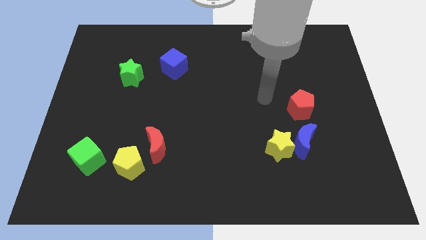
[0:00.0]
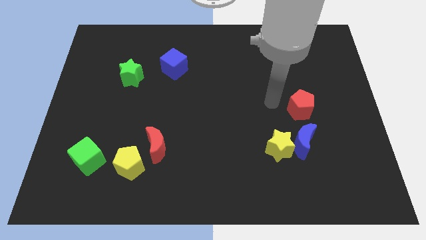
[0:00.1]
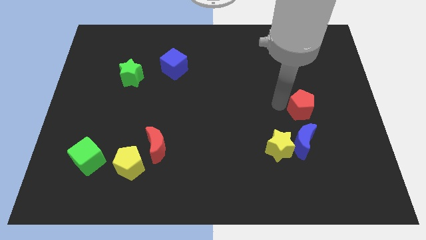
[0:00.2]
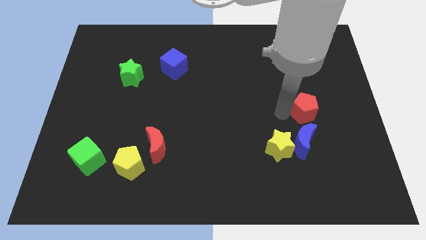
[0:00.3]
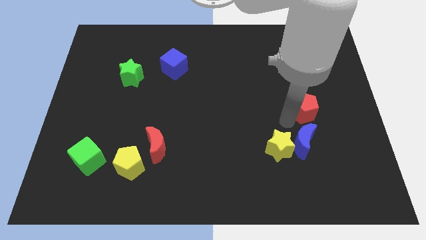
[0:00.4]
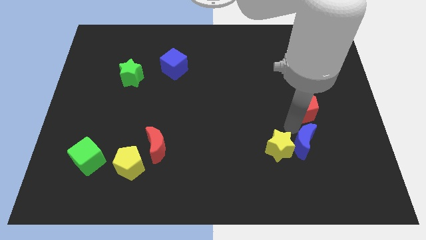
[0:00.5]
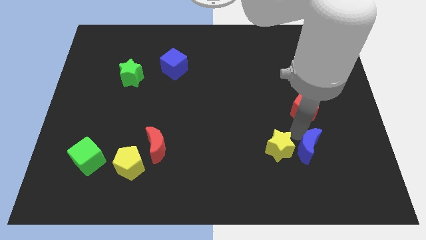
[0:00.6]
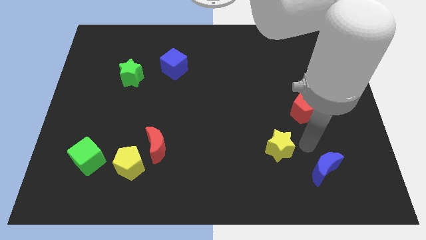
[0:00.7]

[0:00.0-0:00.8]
pull the yellow star apart from the blue moon

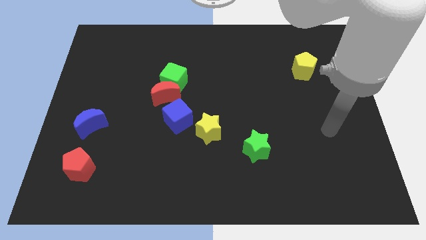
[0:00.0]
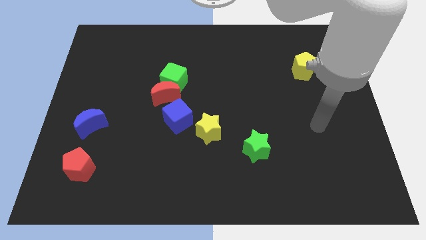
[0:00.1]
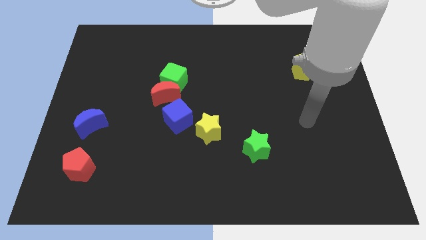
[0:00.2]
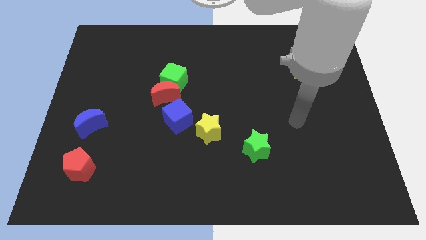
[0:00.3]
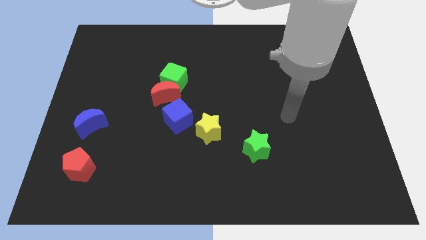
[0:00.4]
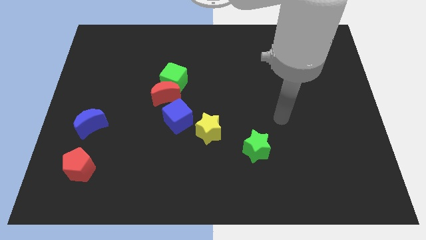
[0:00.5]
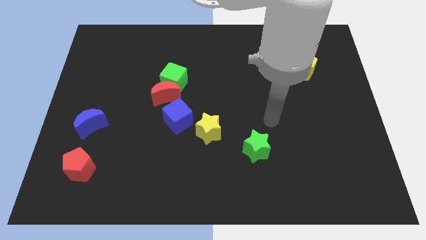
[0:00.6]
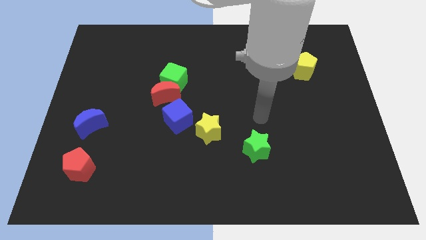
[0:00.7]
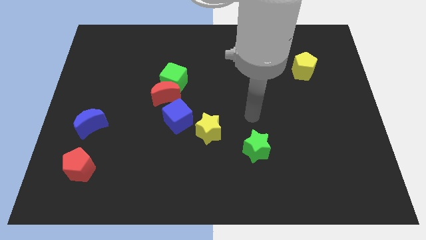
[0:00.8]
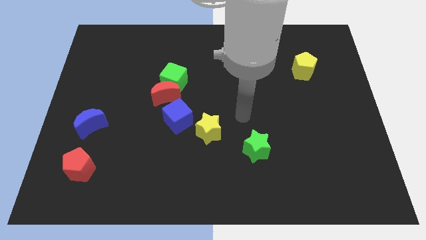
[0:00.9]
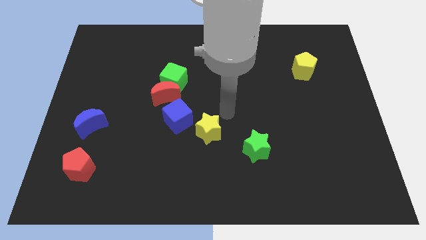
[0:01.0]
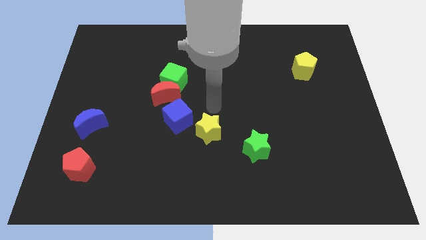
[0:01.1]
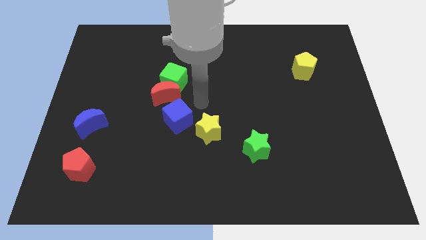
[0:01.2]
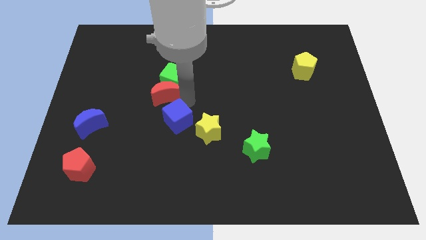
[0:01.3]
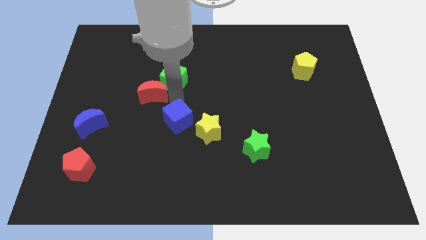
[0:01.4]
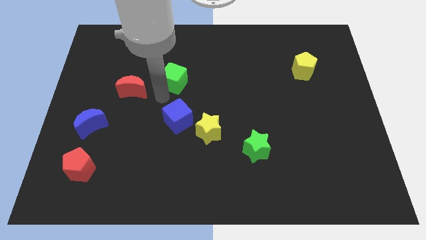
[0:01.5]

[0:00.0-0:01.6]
move the green cube away from the red moon

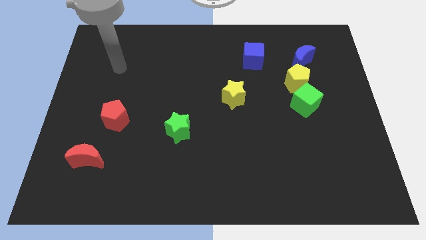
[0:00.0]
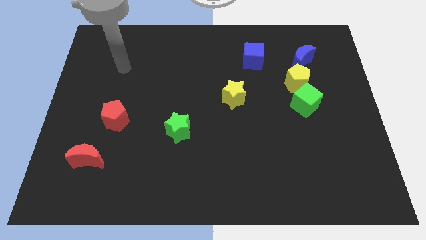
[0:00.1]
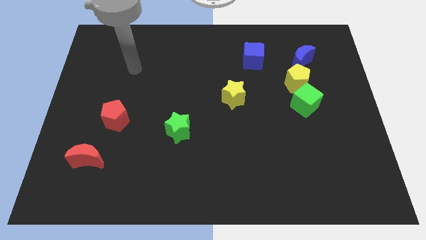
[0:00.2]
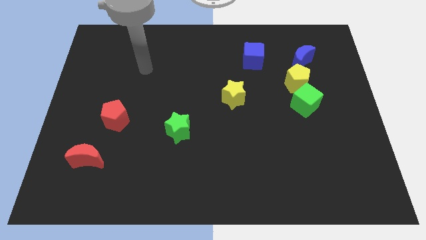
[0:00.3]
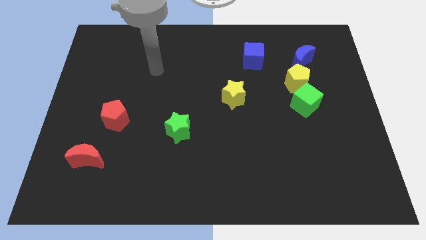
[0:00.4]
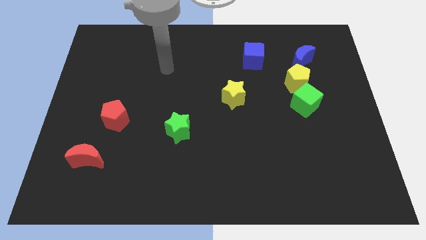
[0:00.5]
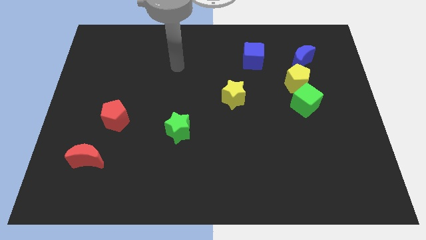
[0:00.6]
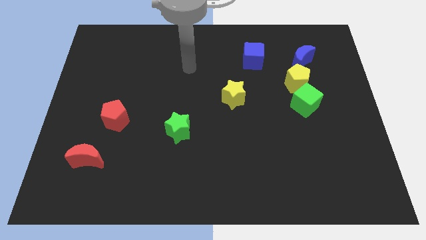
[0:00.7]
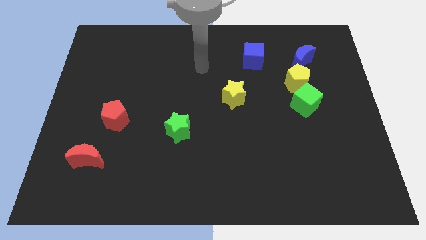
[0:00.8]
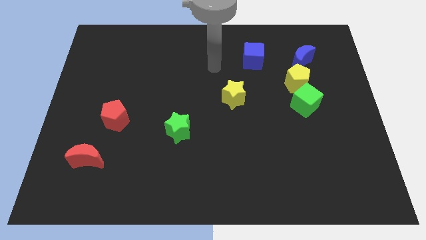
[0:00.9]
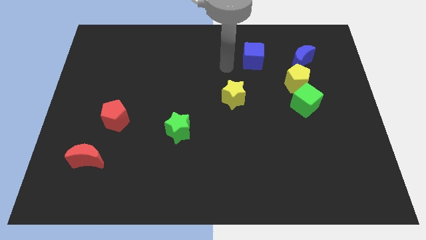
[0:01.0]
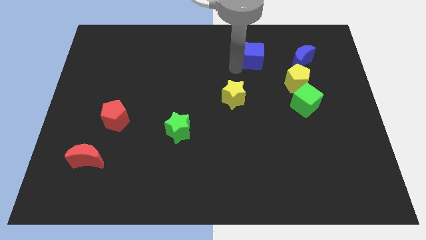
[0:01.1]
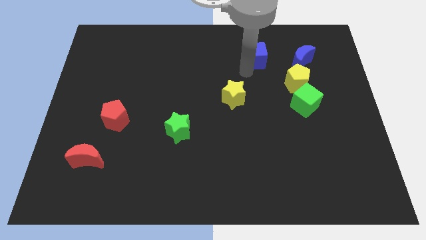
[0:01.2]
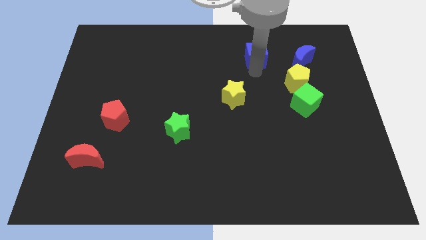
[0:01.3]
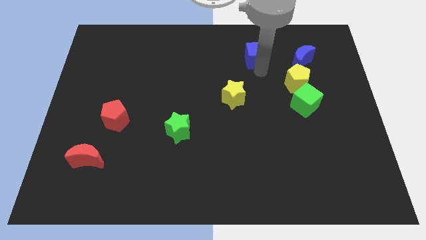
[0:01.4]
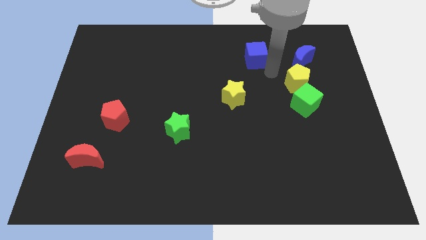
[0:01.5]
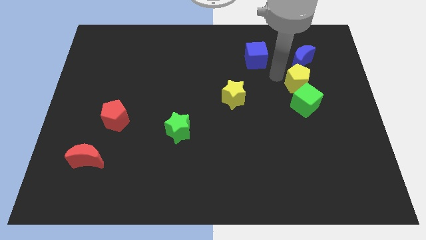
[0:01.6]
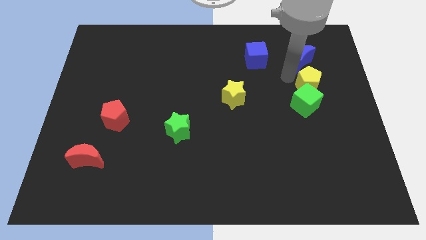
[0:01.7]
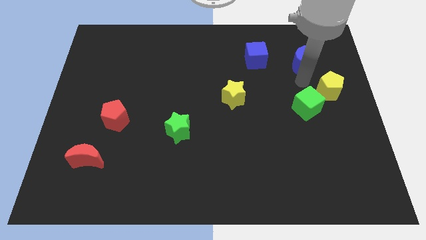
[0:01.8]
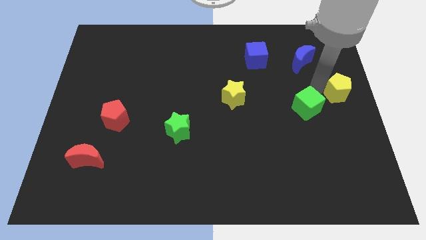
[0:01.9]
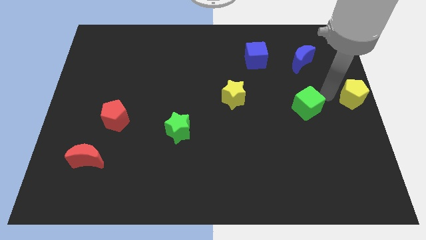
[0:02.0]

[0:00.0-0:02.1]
move the green cube away from the yellow pentagon

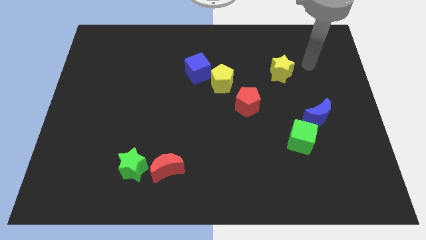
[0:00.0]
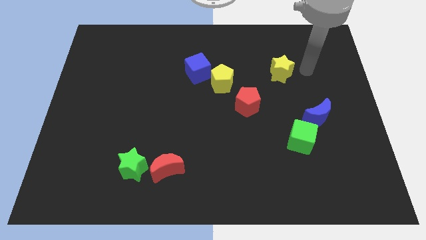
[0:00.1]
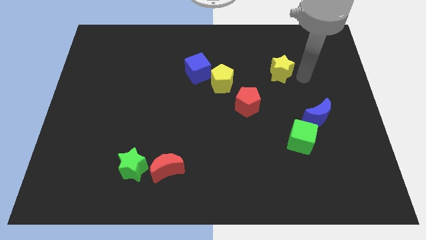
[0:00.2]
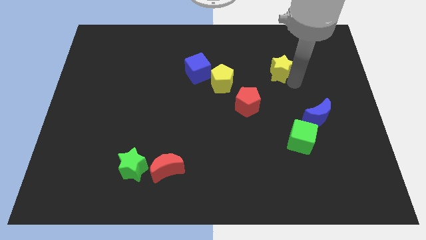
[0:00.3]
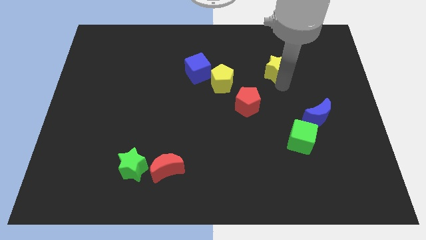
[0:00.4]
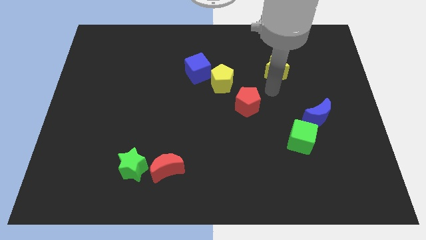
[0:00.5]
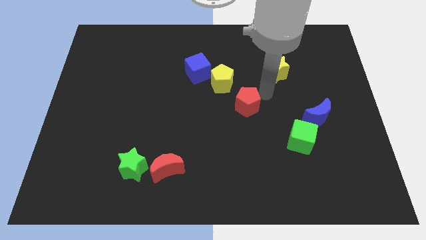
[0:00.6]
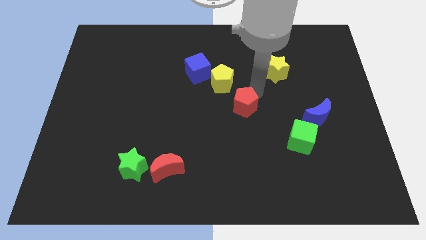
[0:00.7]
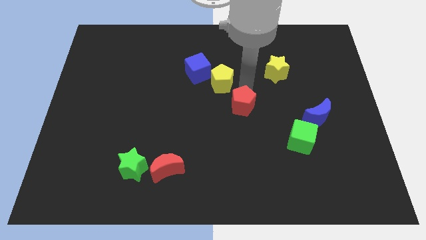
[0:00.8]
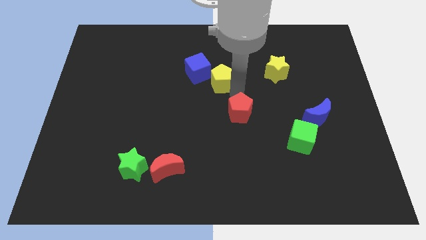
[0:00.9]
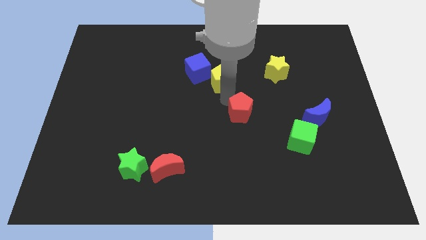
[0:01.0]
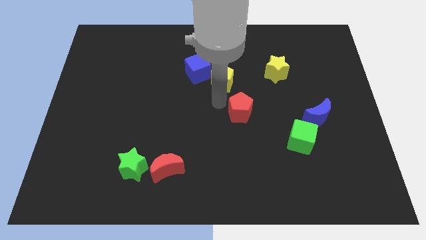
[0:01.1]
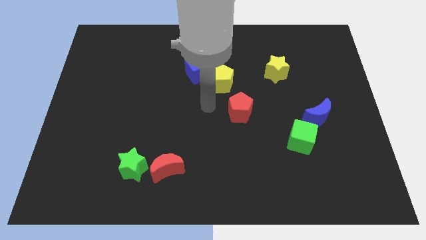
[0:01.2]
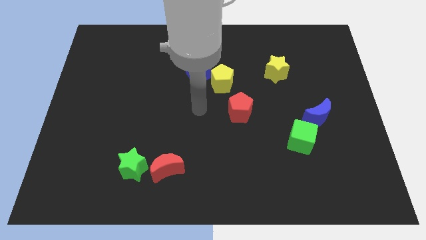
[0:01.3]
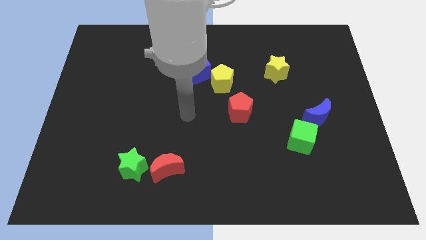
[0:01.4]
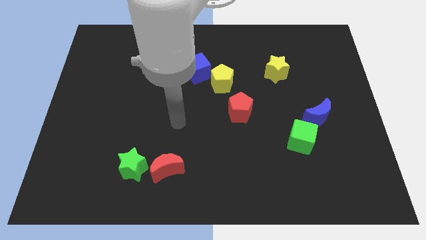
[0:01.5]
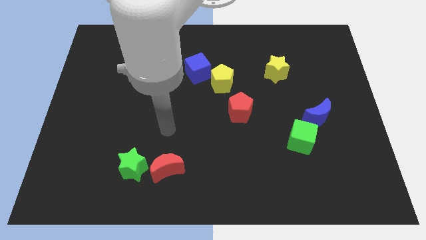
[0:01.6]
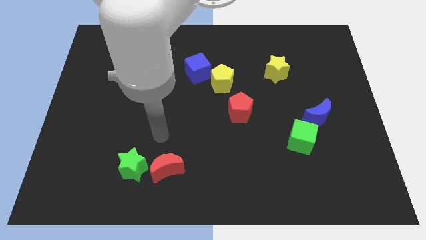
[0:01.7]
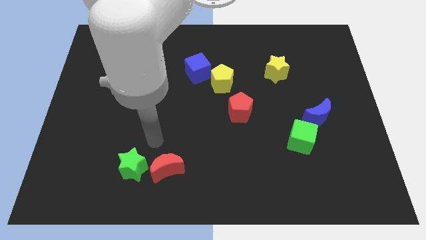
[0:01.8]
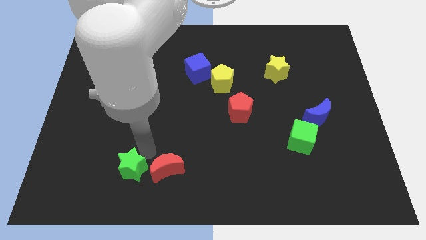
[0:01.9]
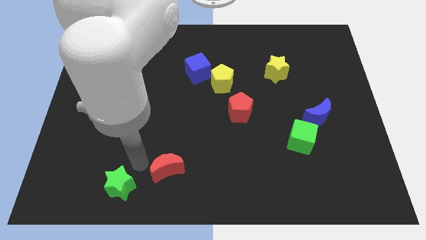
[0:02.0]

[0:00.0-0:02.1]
move the red moon away from the green star

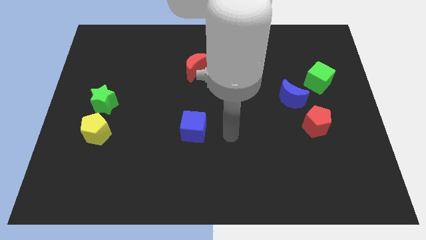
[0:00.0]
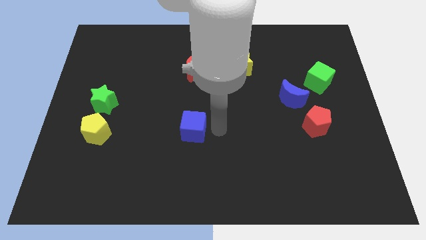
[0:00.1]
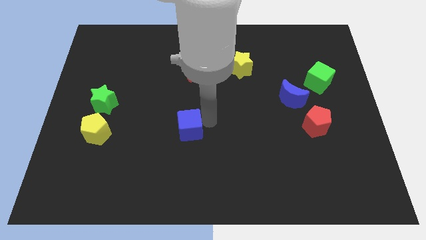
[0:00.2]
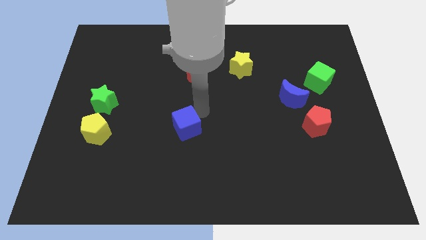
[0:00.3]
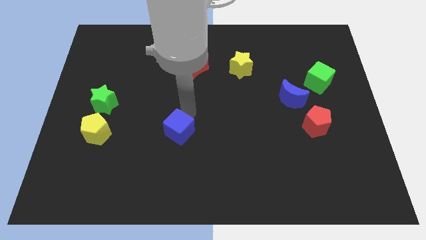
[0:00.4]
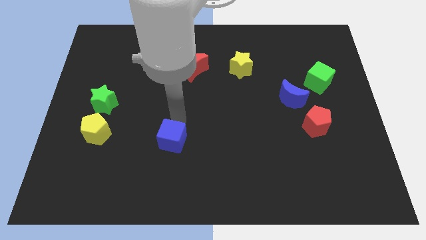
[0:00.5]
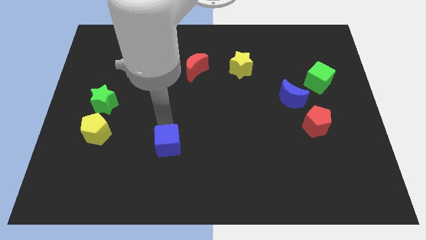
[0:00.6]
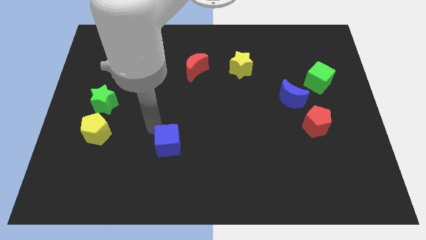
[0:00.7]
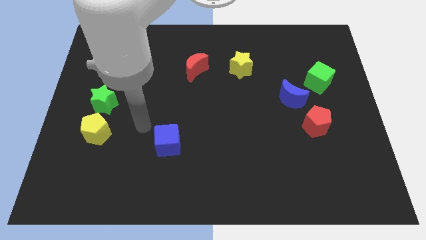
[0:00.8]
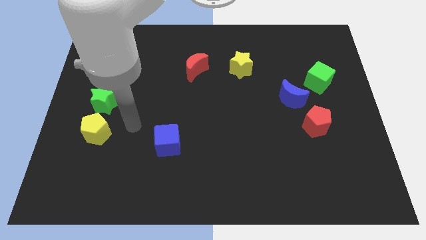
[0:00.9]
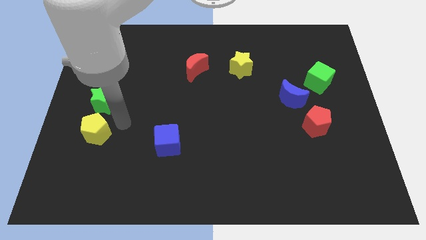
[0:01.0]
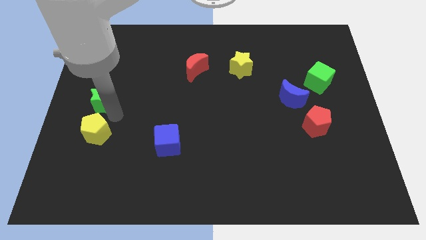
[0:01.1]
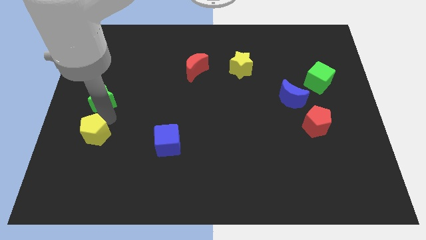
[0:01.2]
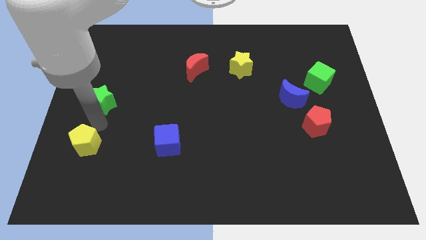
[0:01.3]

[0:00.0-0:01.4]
move the green star away from the yellow pentagon

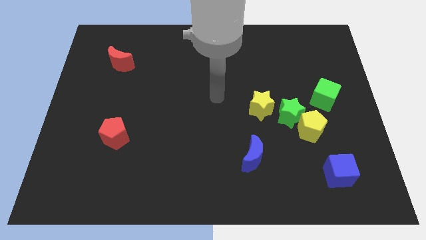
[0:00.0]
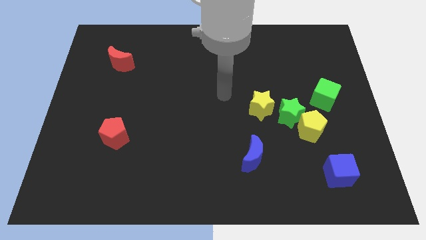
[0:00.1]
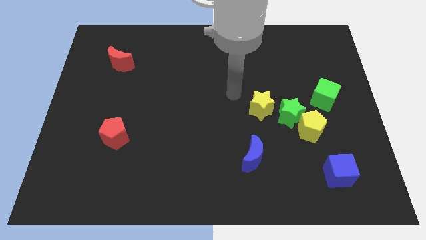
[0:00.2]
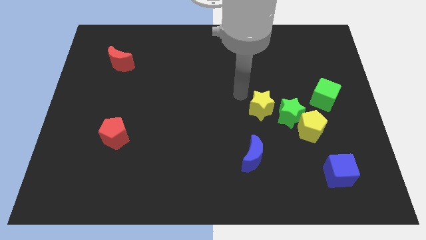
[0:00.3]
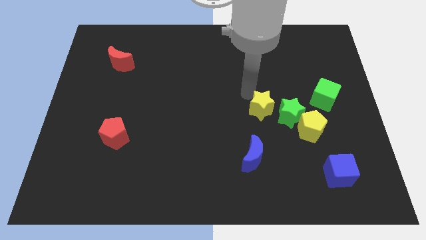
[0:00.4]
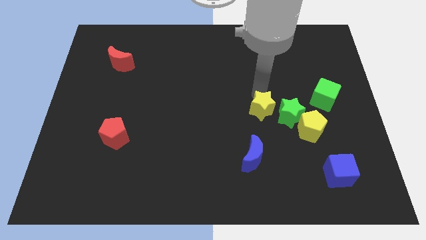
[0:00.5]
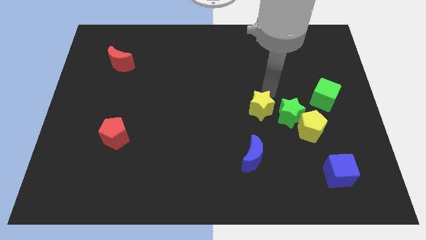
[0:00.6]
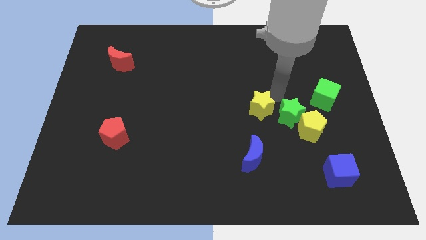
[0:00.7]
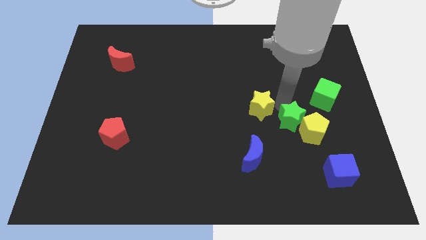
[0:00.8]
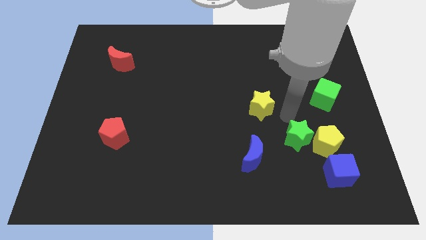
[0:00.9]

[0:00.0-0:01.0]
pull the yellow star apart from the green star

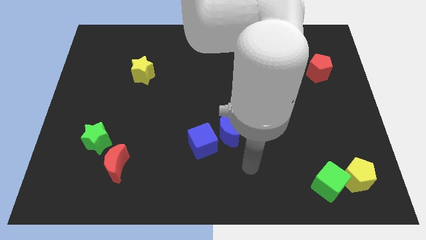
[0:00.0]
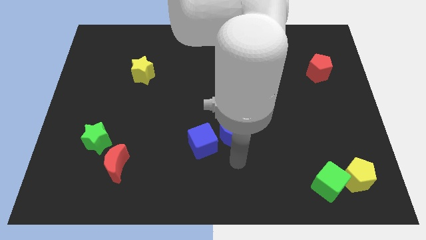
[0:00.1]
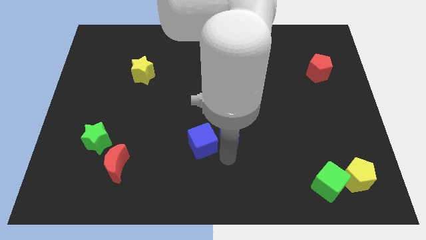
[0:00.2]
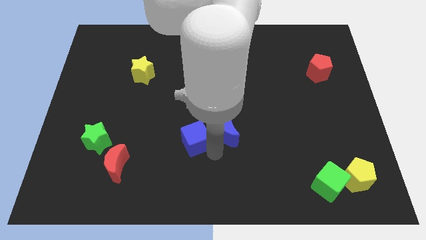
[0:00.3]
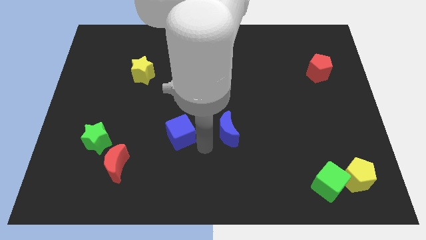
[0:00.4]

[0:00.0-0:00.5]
move the blue moon away from the blue cube
